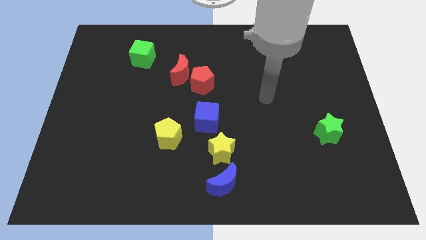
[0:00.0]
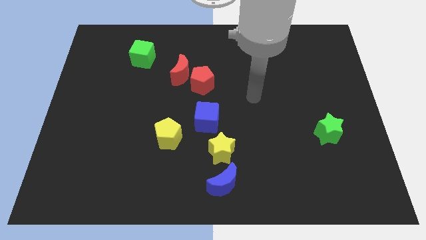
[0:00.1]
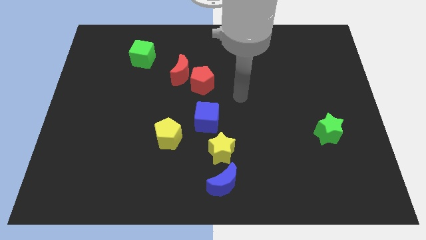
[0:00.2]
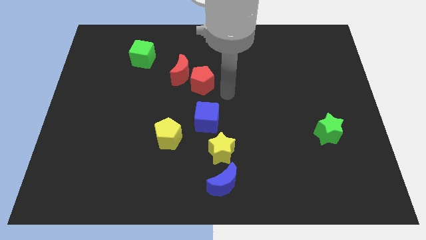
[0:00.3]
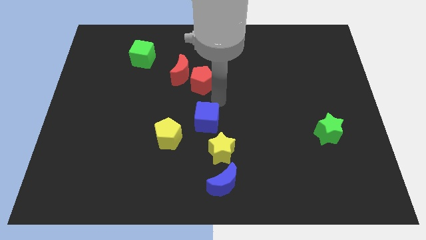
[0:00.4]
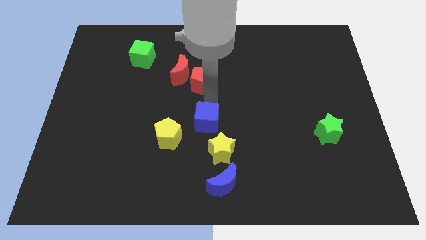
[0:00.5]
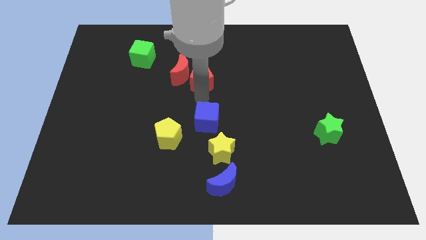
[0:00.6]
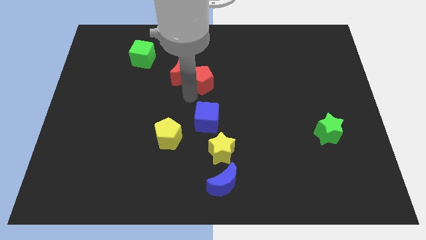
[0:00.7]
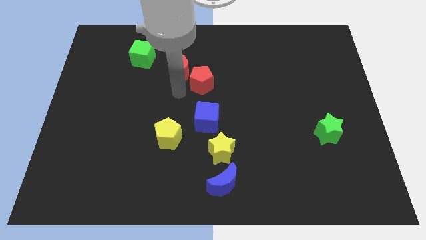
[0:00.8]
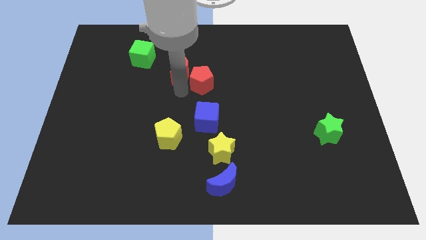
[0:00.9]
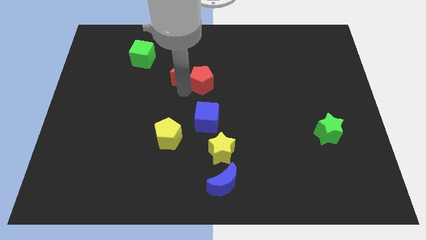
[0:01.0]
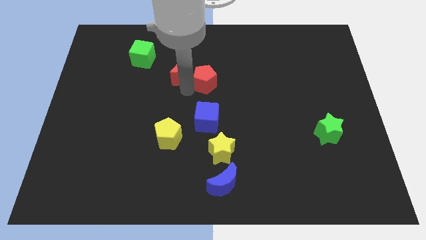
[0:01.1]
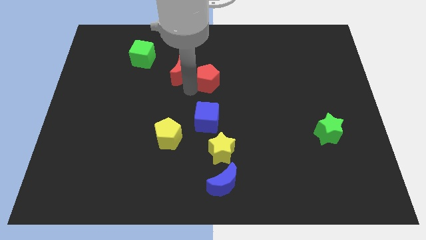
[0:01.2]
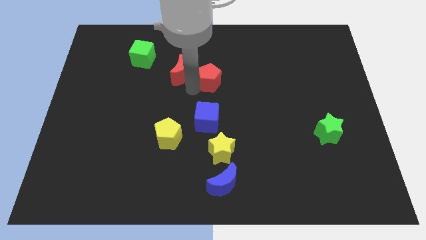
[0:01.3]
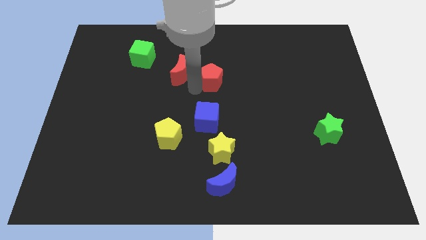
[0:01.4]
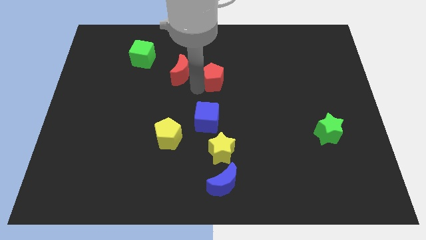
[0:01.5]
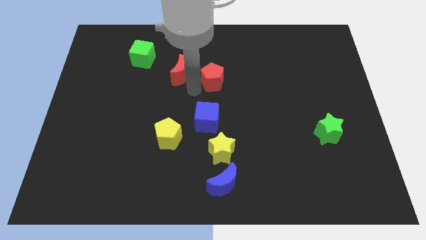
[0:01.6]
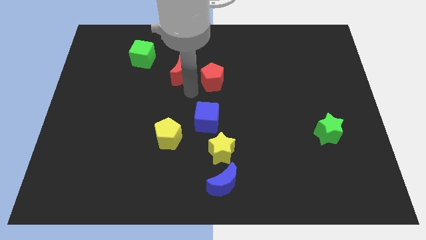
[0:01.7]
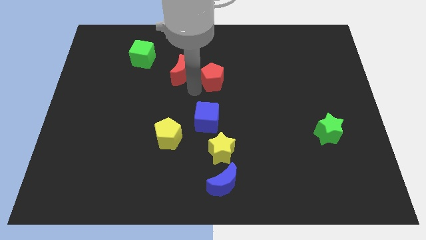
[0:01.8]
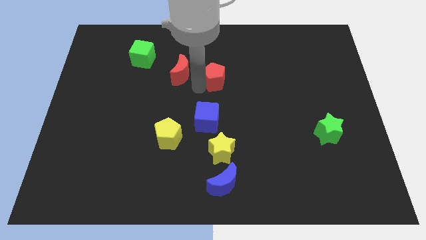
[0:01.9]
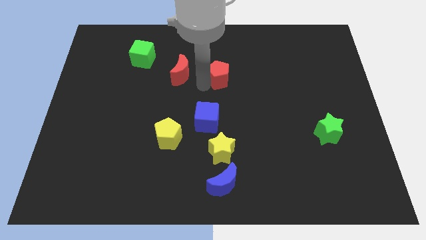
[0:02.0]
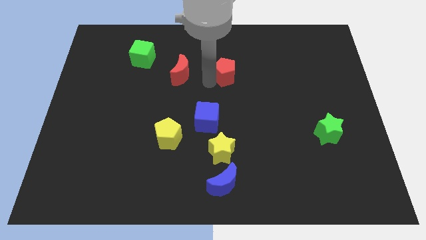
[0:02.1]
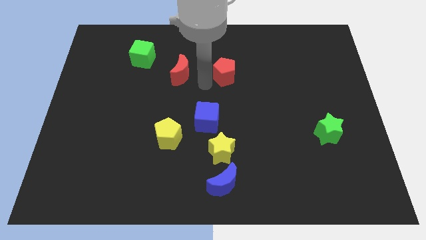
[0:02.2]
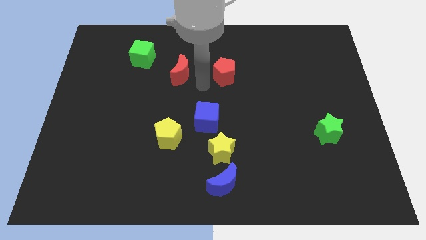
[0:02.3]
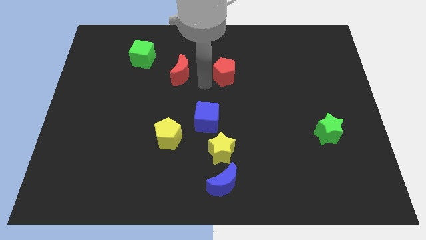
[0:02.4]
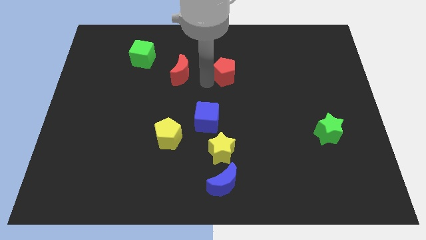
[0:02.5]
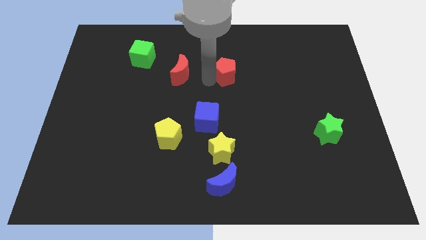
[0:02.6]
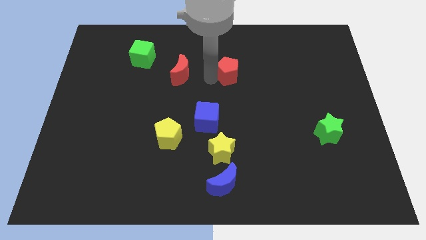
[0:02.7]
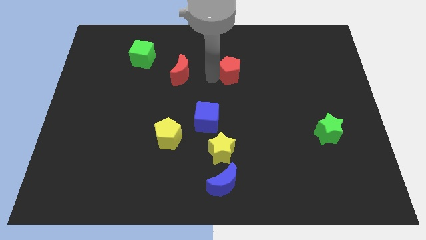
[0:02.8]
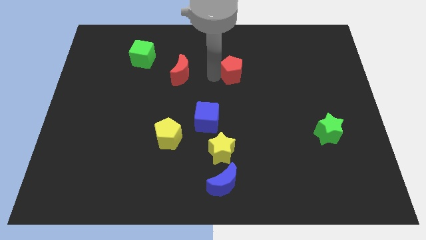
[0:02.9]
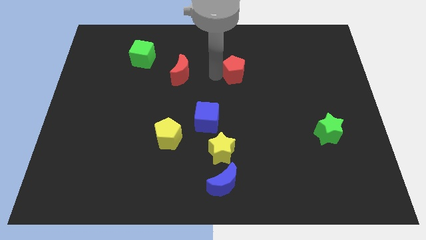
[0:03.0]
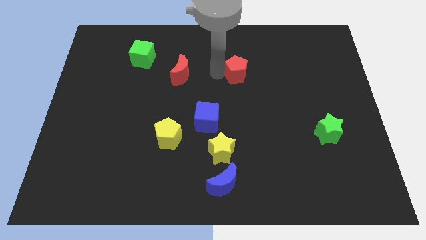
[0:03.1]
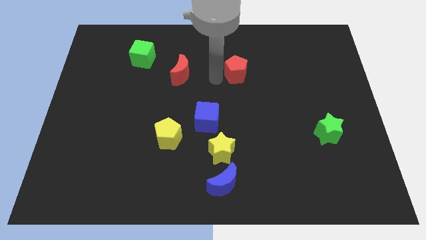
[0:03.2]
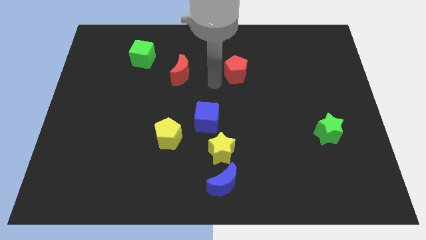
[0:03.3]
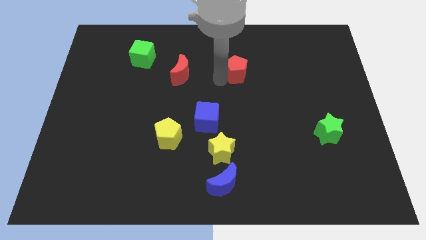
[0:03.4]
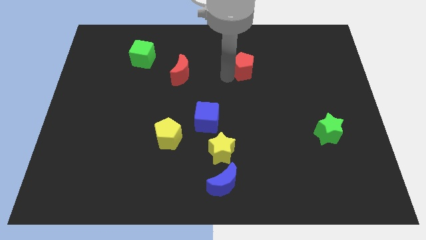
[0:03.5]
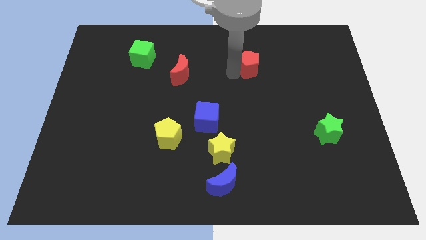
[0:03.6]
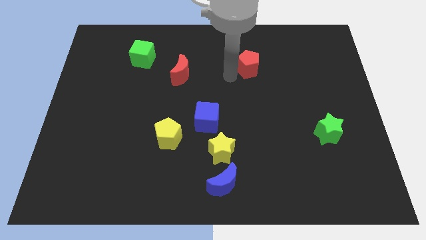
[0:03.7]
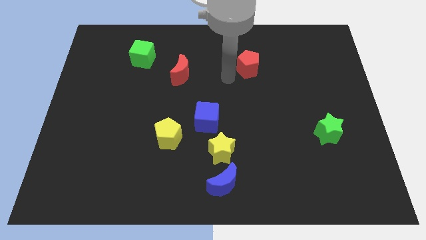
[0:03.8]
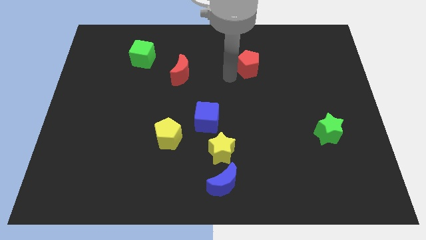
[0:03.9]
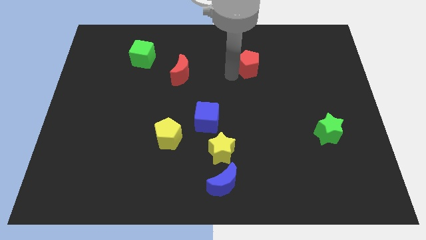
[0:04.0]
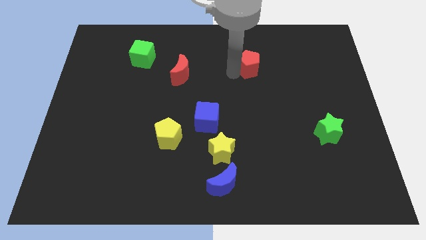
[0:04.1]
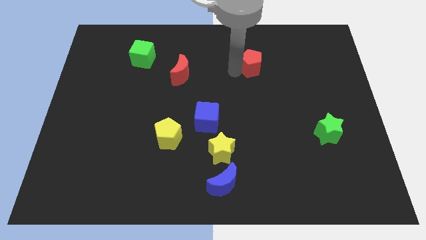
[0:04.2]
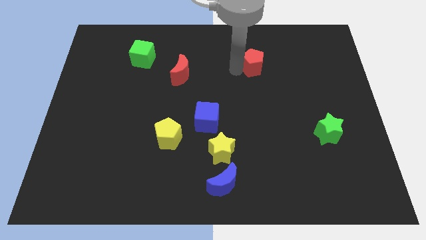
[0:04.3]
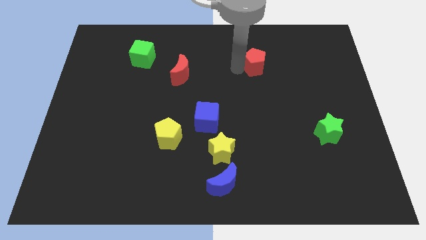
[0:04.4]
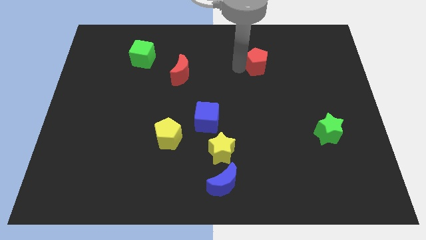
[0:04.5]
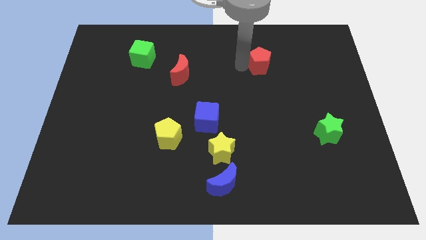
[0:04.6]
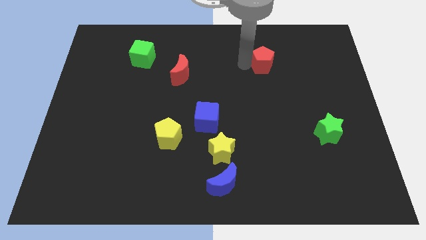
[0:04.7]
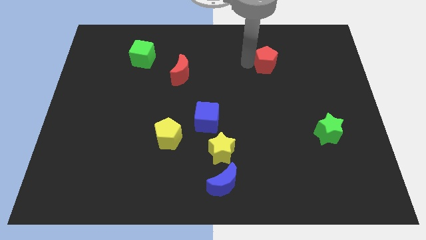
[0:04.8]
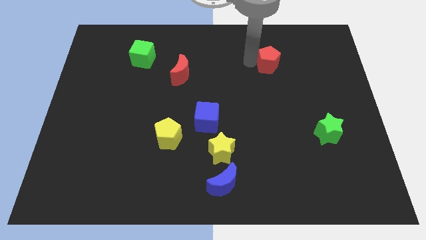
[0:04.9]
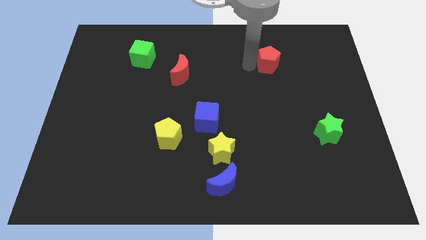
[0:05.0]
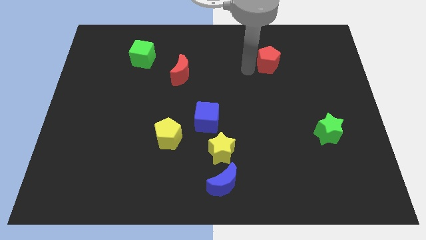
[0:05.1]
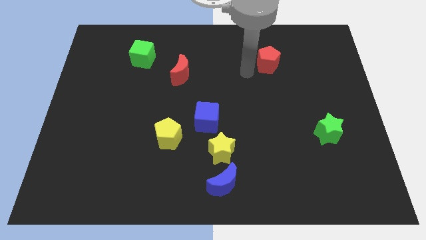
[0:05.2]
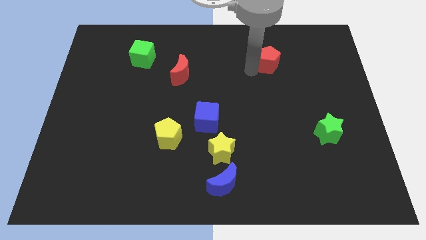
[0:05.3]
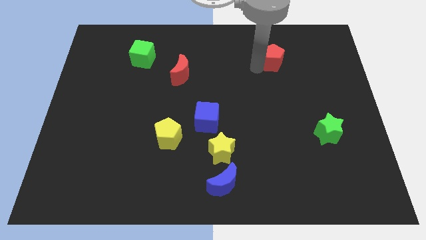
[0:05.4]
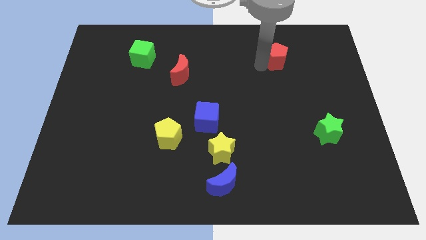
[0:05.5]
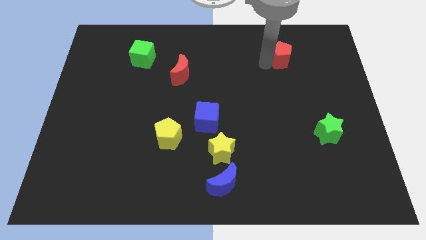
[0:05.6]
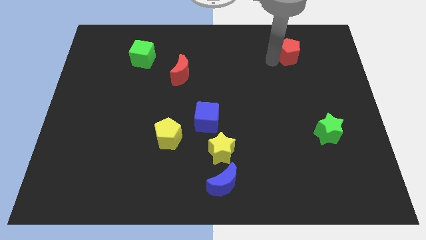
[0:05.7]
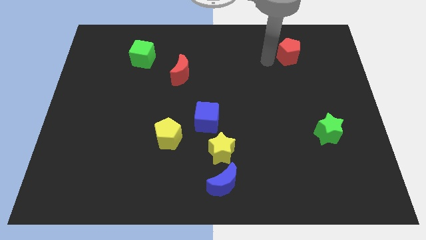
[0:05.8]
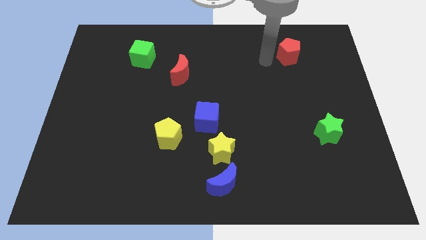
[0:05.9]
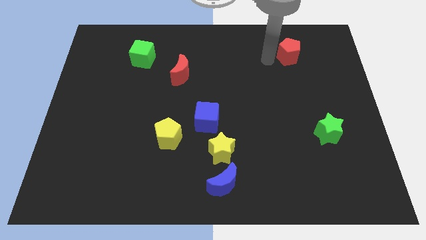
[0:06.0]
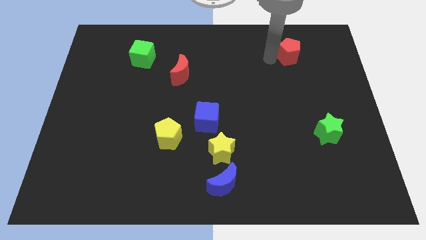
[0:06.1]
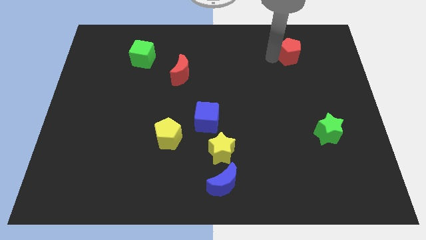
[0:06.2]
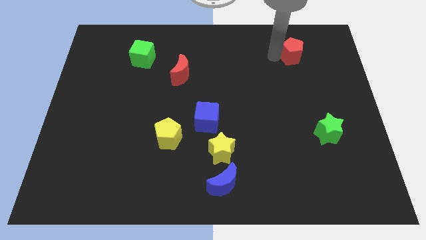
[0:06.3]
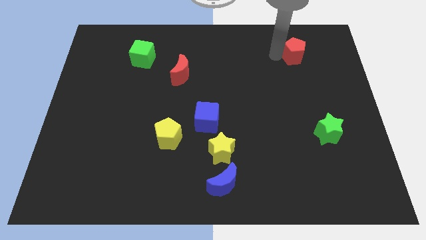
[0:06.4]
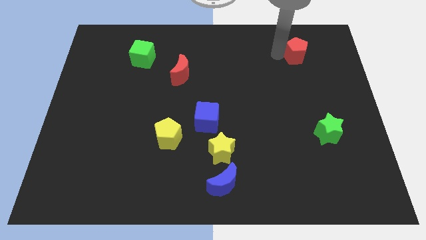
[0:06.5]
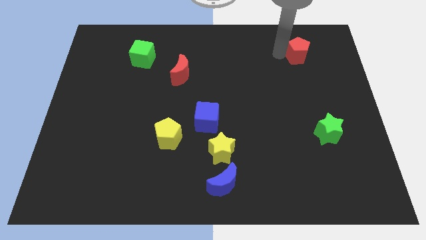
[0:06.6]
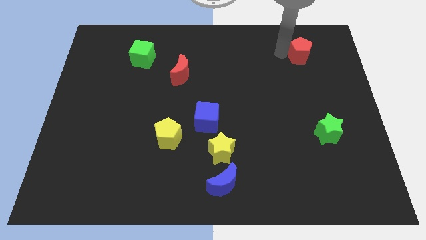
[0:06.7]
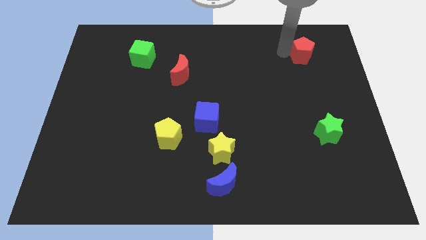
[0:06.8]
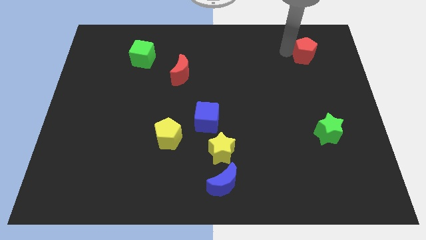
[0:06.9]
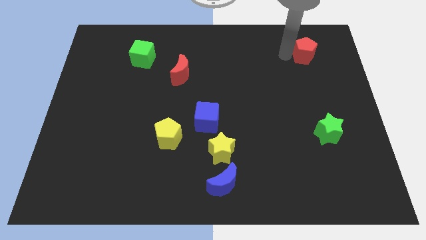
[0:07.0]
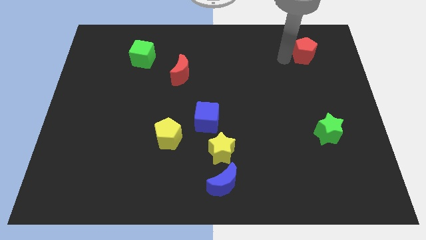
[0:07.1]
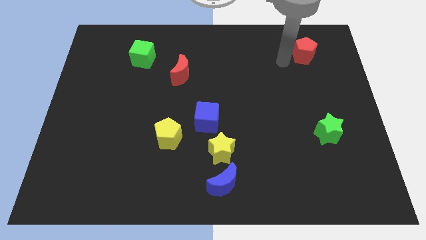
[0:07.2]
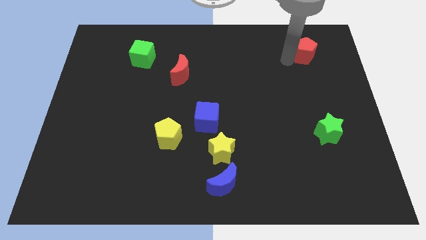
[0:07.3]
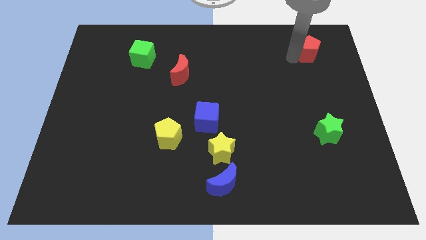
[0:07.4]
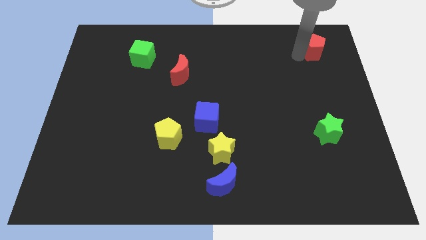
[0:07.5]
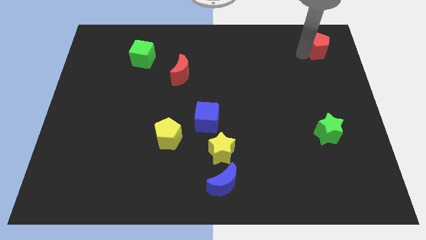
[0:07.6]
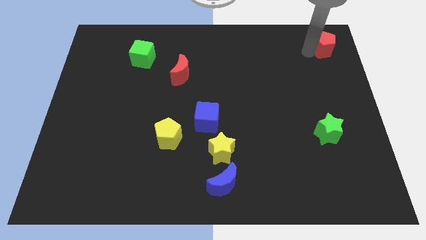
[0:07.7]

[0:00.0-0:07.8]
move the red pentagon to the top right corner
